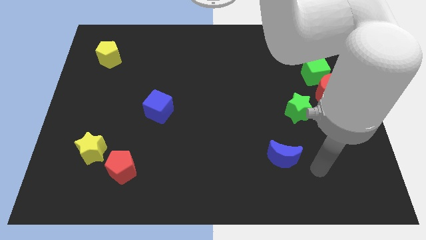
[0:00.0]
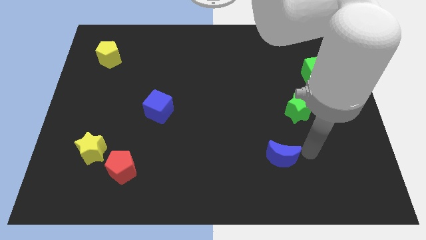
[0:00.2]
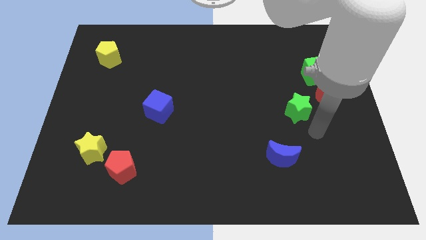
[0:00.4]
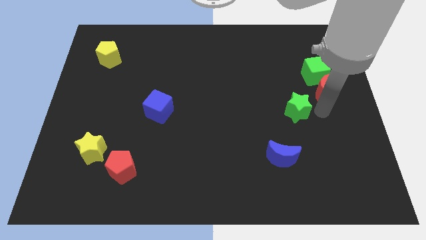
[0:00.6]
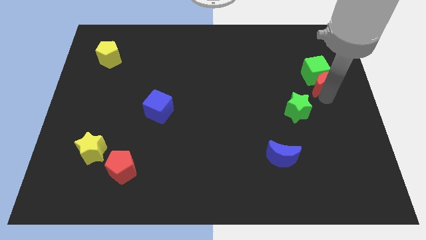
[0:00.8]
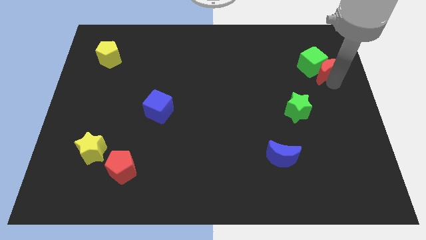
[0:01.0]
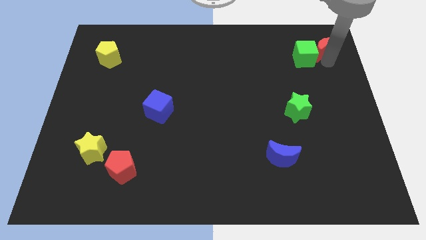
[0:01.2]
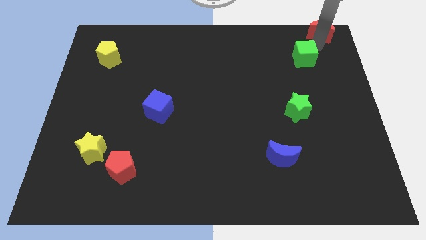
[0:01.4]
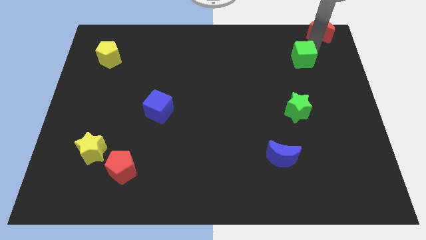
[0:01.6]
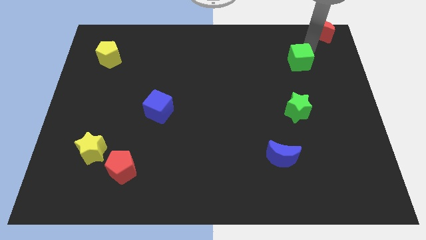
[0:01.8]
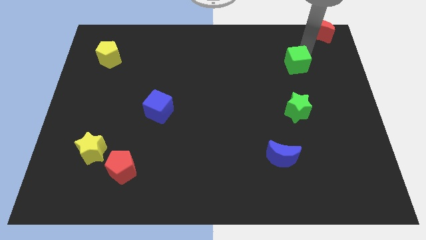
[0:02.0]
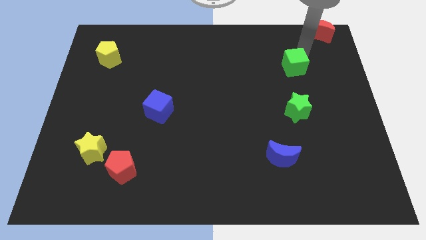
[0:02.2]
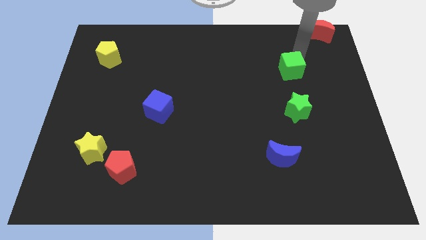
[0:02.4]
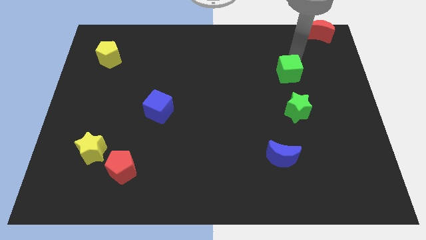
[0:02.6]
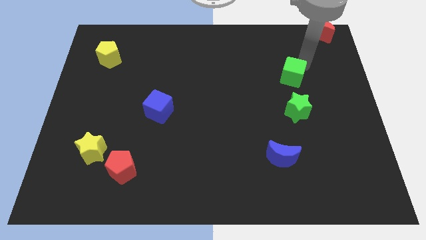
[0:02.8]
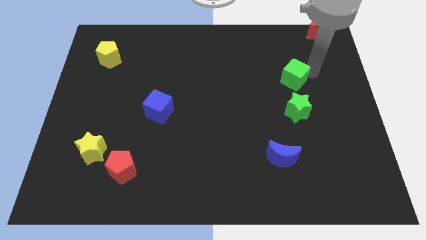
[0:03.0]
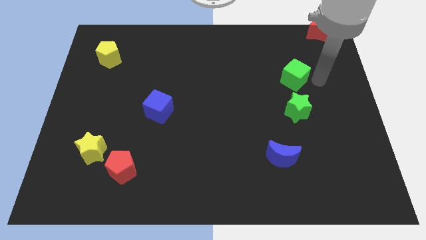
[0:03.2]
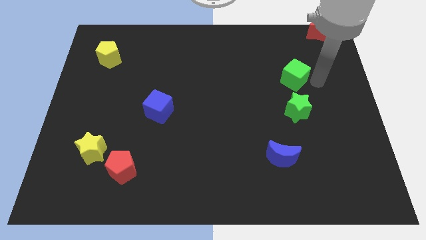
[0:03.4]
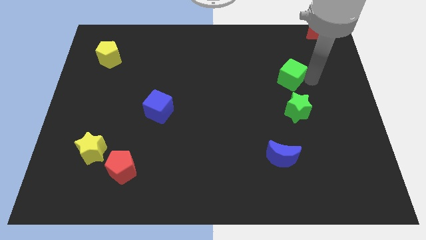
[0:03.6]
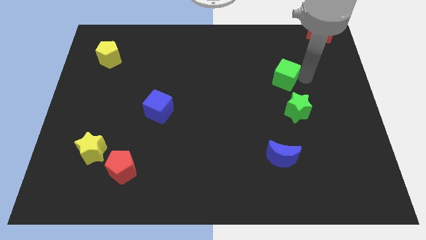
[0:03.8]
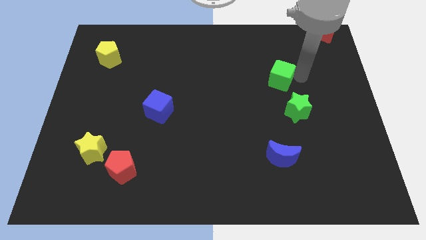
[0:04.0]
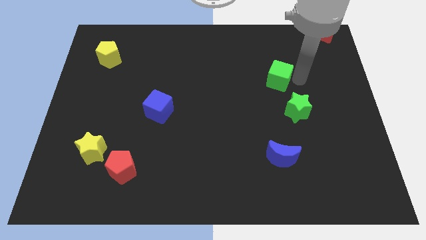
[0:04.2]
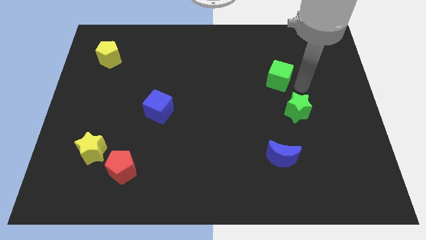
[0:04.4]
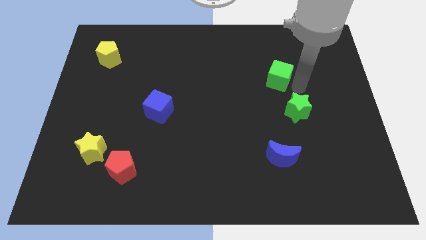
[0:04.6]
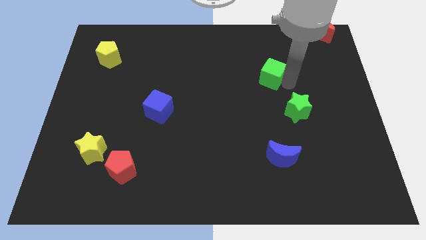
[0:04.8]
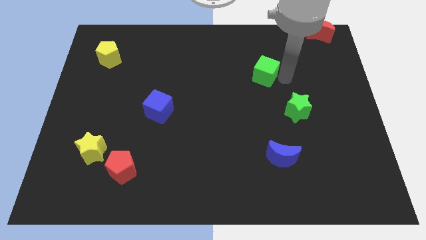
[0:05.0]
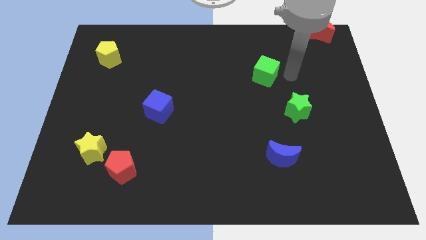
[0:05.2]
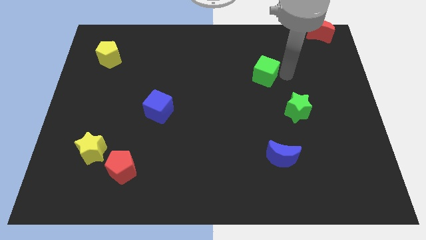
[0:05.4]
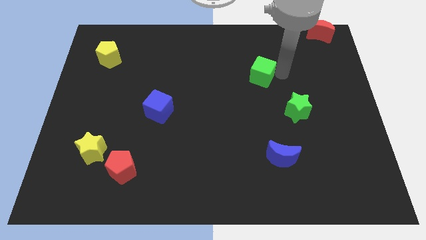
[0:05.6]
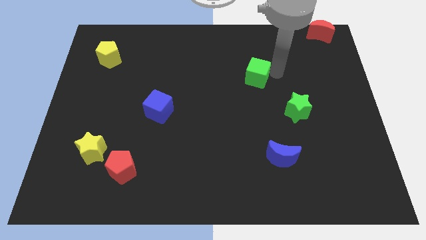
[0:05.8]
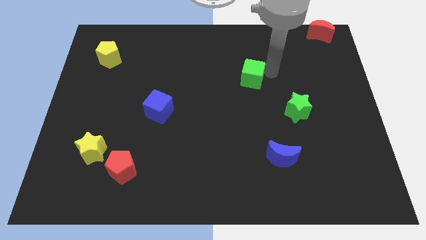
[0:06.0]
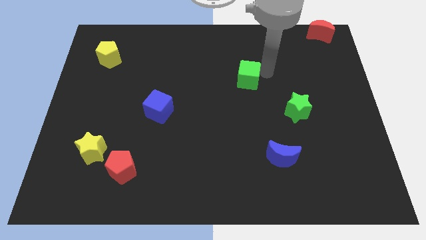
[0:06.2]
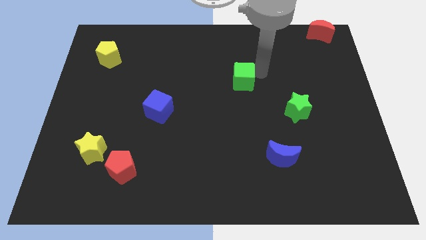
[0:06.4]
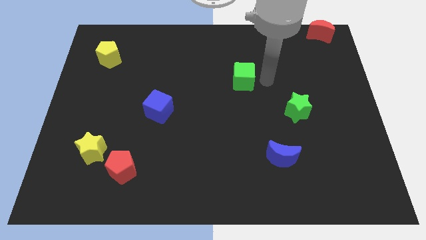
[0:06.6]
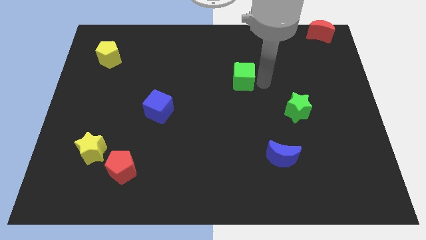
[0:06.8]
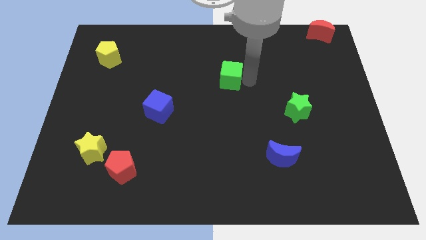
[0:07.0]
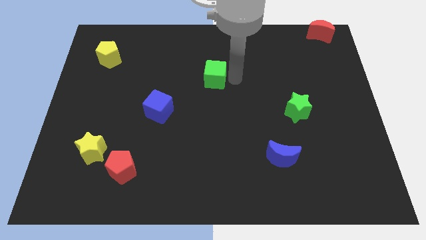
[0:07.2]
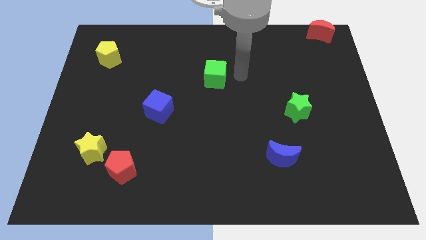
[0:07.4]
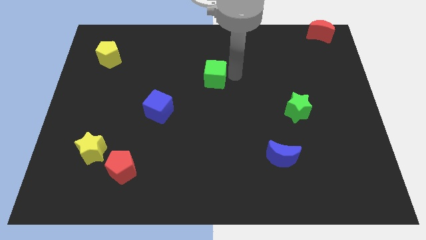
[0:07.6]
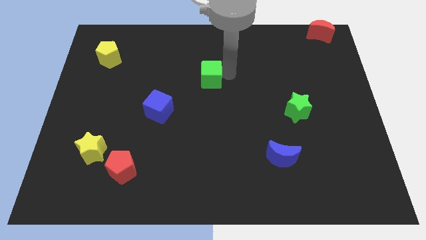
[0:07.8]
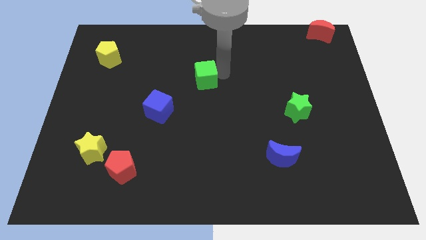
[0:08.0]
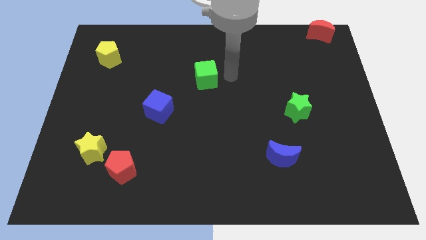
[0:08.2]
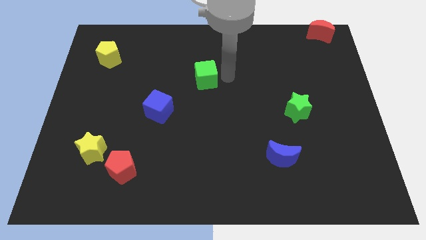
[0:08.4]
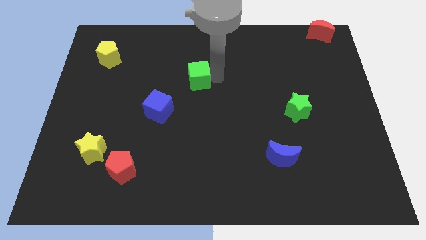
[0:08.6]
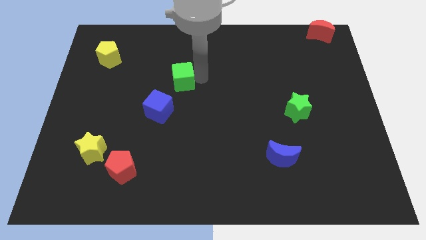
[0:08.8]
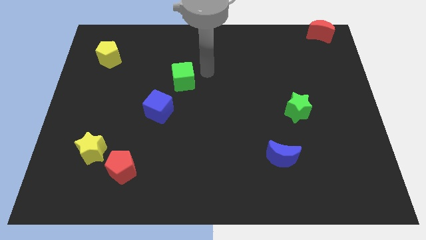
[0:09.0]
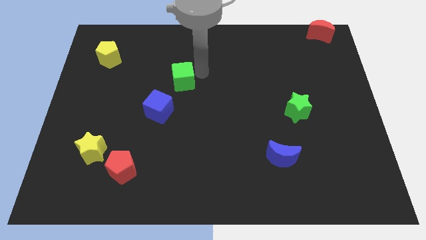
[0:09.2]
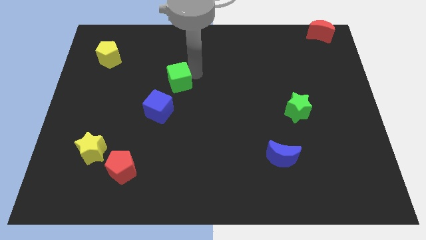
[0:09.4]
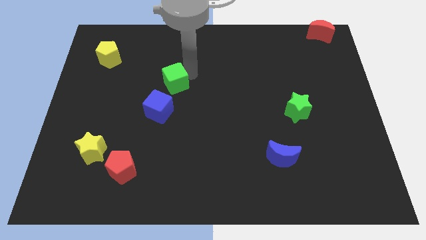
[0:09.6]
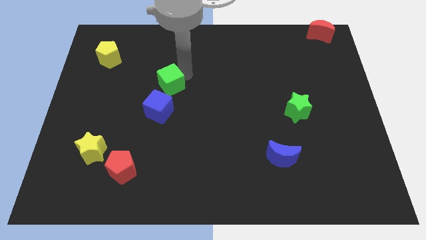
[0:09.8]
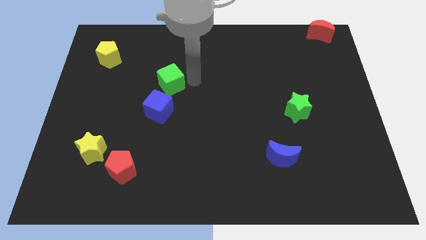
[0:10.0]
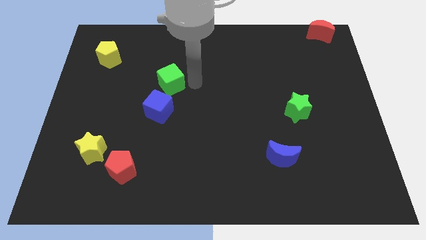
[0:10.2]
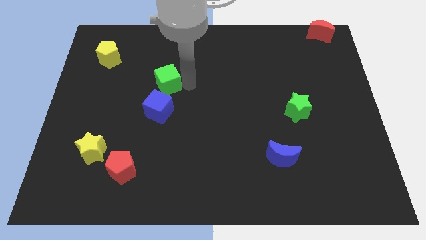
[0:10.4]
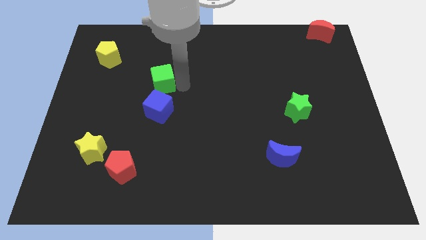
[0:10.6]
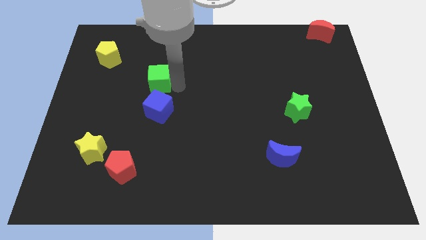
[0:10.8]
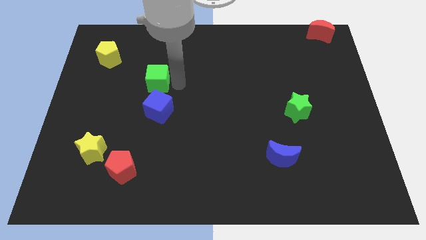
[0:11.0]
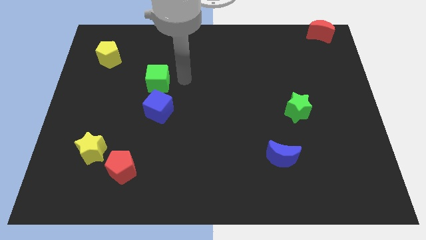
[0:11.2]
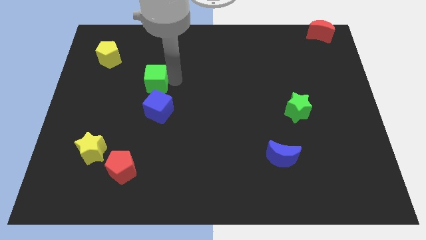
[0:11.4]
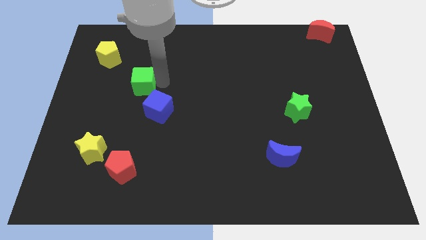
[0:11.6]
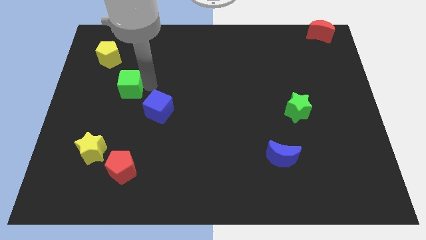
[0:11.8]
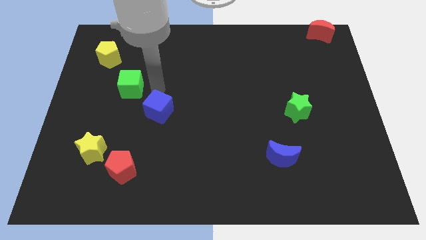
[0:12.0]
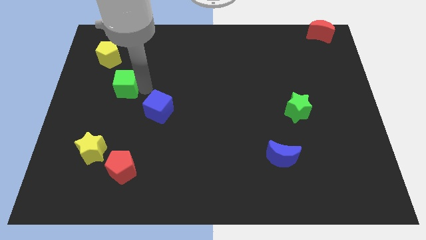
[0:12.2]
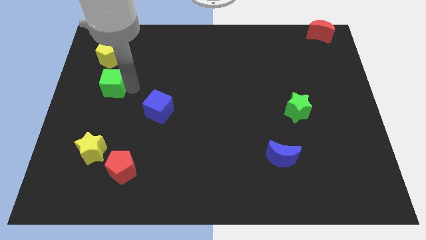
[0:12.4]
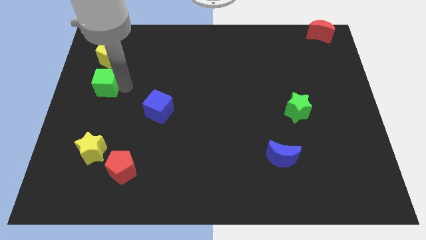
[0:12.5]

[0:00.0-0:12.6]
move the green cube to the left side

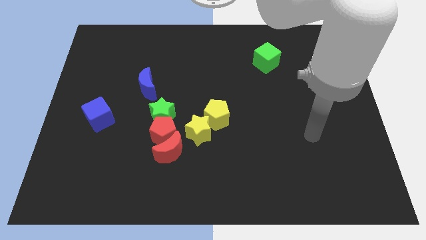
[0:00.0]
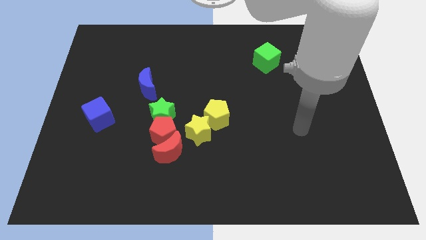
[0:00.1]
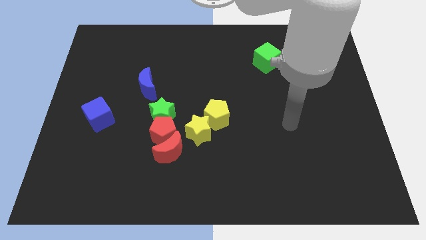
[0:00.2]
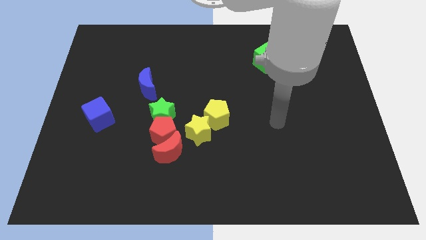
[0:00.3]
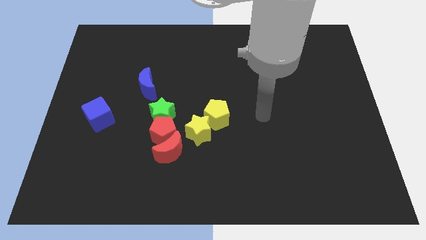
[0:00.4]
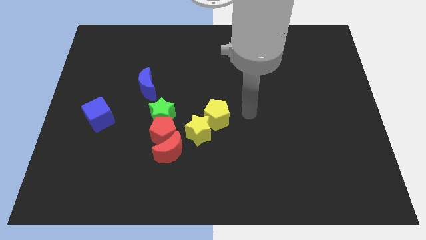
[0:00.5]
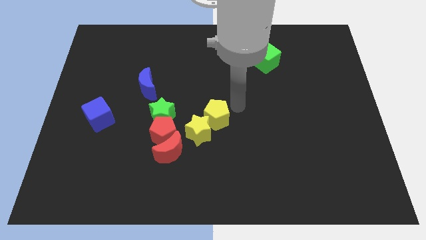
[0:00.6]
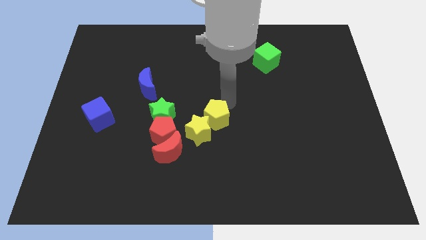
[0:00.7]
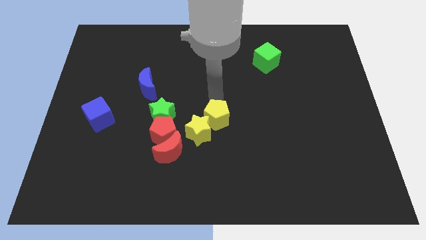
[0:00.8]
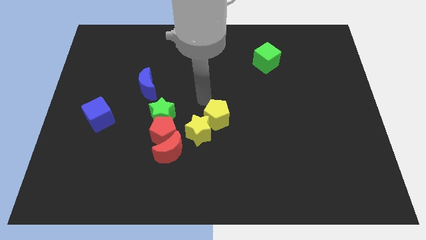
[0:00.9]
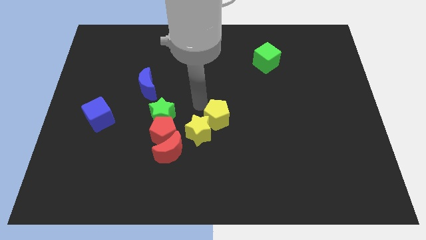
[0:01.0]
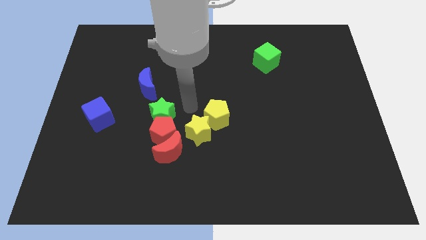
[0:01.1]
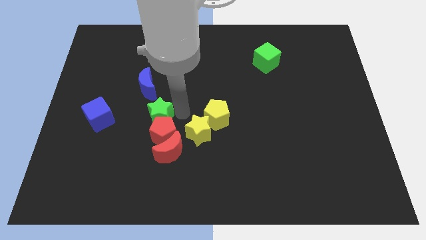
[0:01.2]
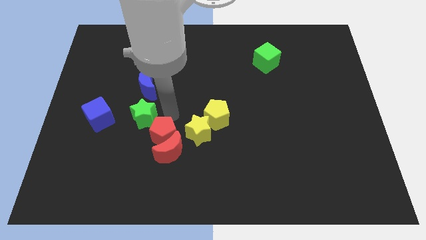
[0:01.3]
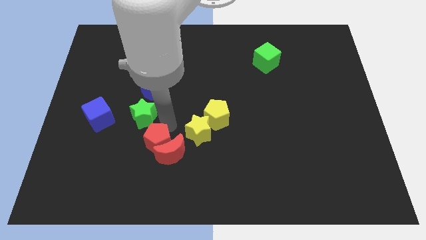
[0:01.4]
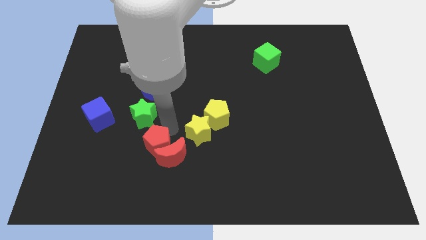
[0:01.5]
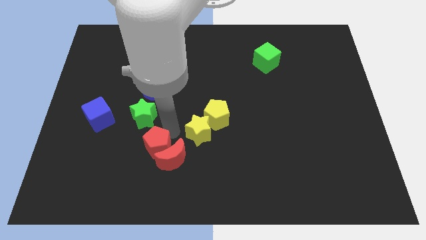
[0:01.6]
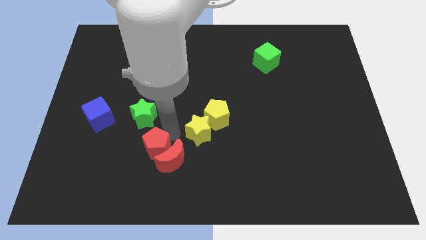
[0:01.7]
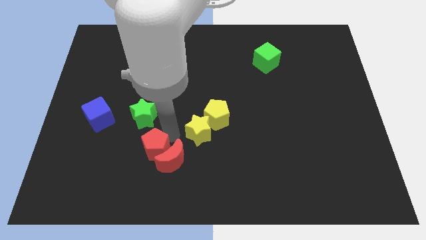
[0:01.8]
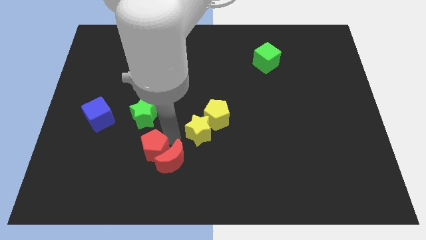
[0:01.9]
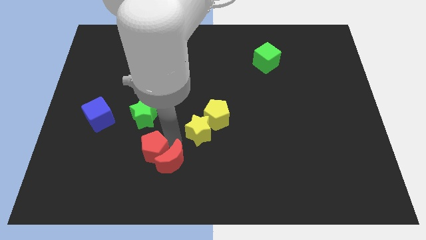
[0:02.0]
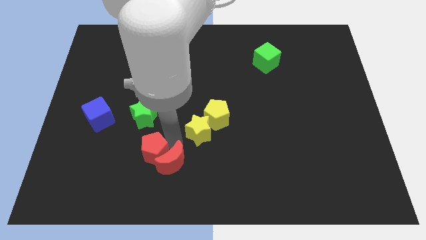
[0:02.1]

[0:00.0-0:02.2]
push the red moon to the bottom
